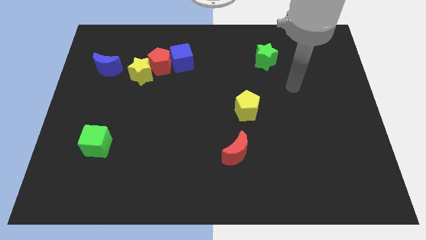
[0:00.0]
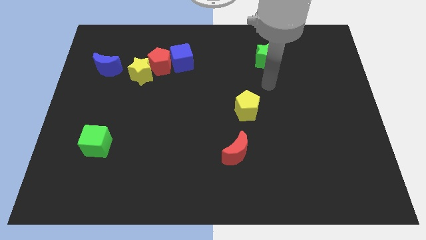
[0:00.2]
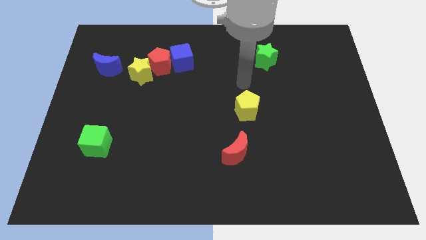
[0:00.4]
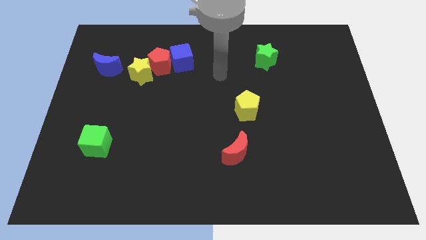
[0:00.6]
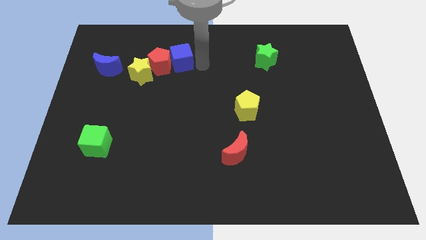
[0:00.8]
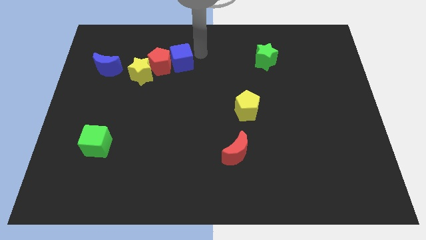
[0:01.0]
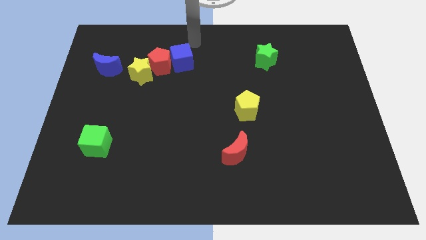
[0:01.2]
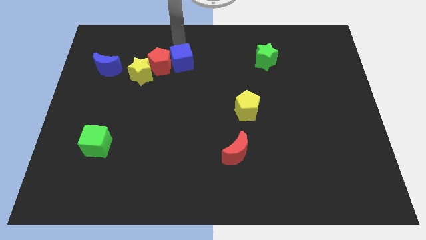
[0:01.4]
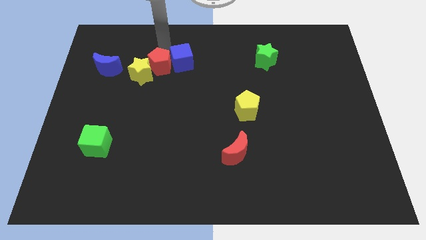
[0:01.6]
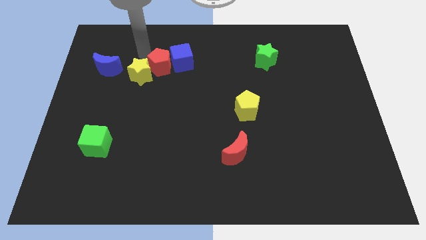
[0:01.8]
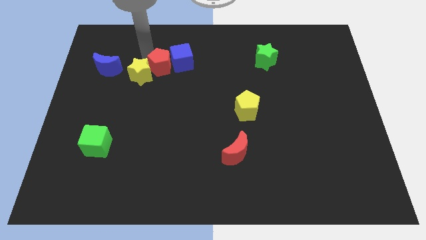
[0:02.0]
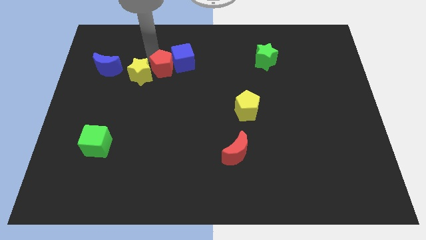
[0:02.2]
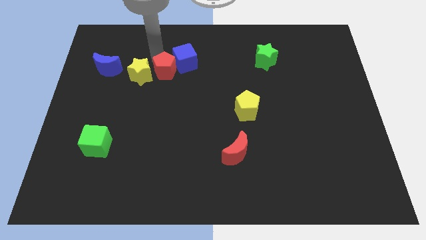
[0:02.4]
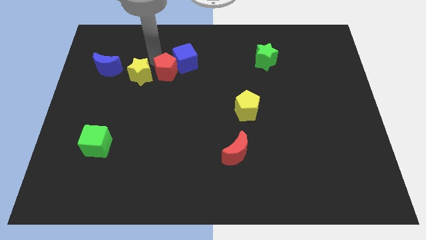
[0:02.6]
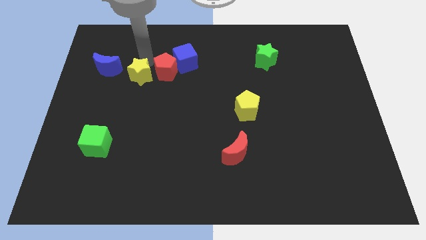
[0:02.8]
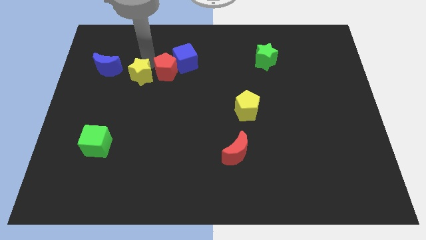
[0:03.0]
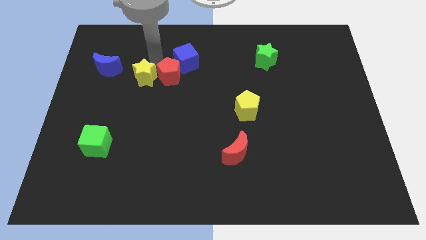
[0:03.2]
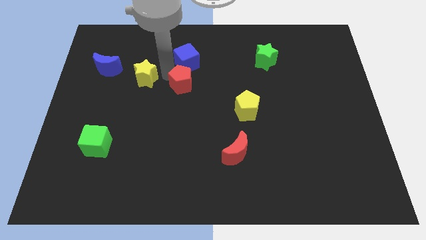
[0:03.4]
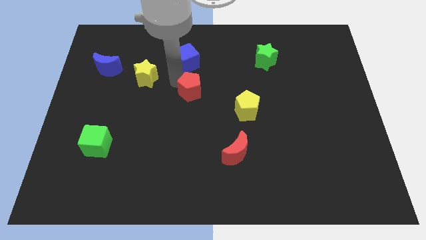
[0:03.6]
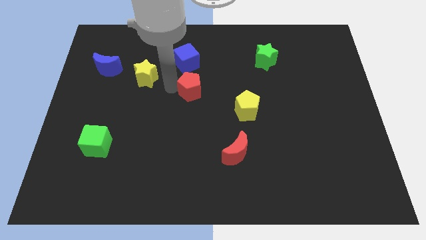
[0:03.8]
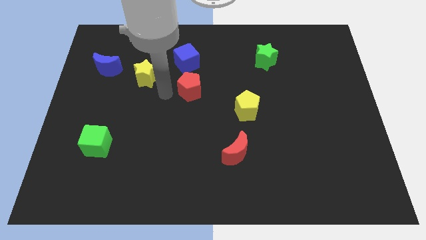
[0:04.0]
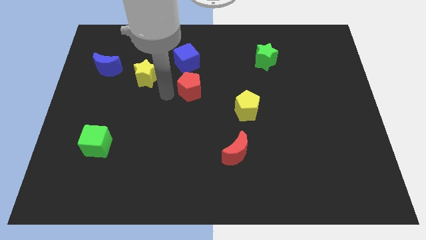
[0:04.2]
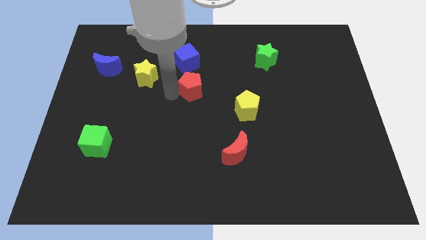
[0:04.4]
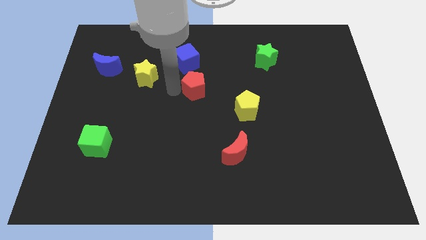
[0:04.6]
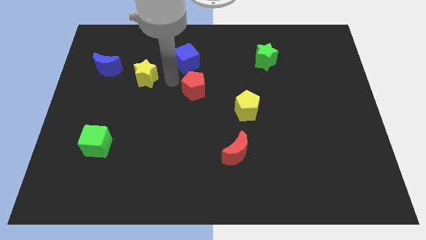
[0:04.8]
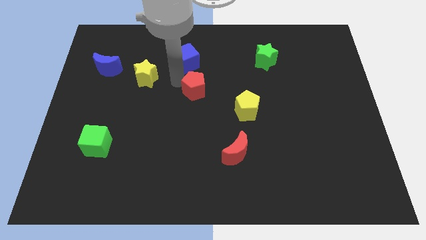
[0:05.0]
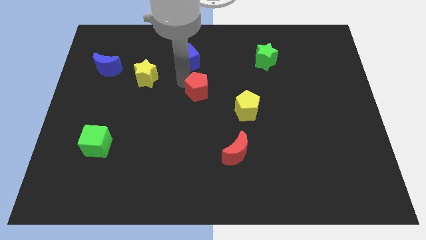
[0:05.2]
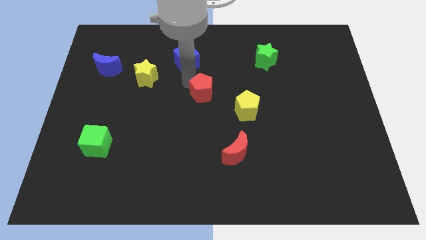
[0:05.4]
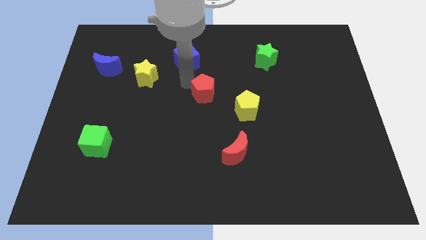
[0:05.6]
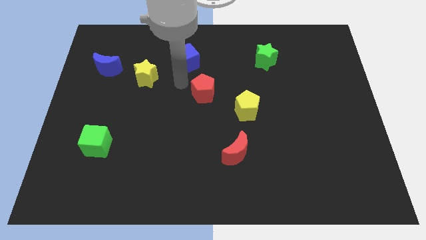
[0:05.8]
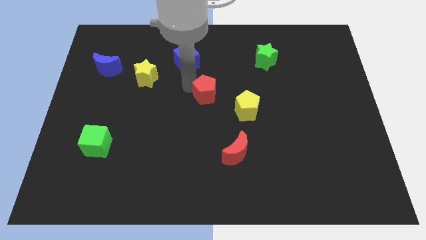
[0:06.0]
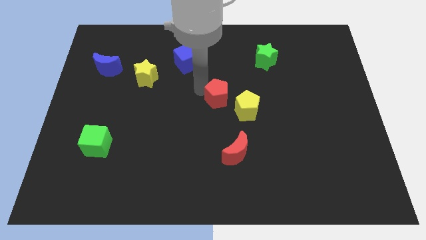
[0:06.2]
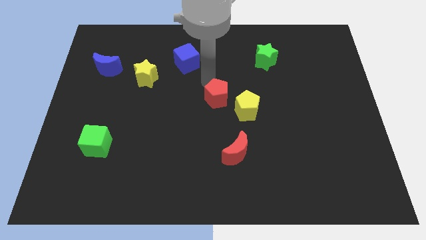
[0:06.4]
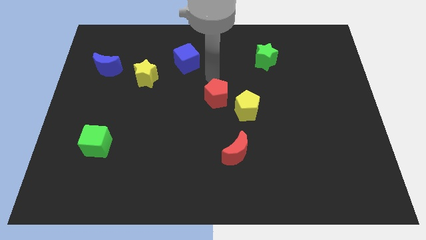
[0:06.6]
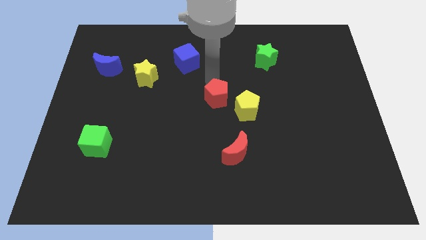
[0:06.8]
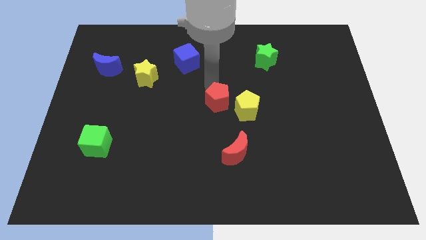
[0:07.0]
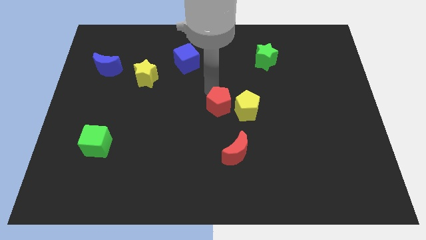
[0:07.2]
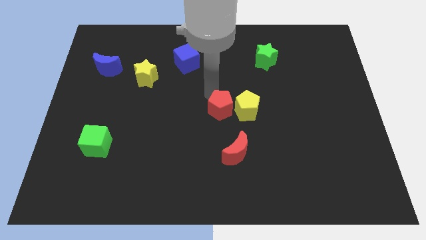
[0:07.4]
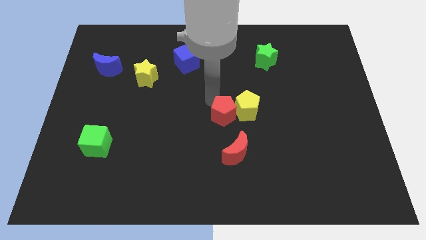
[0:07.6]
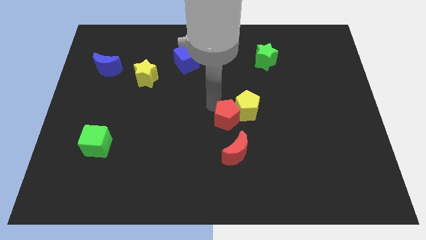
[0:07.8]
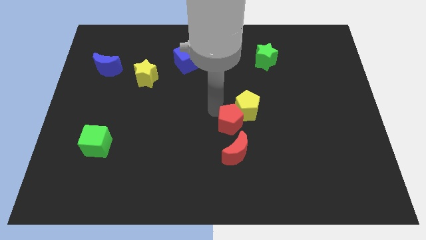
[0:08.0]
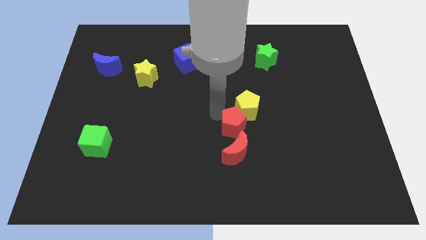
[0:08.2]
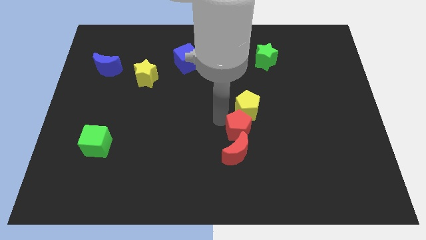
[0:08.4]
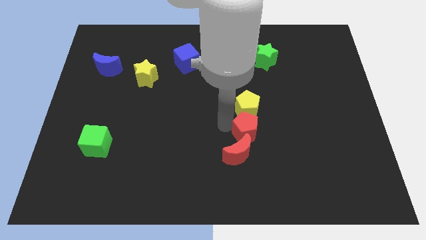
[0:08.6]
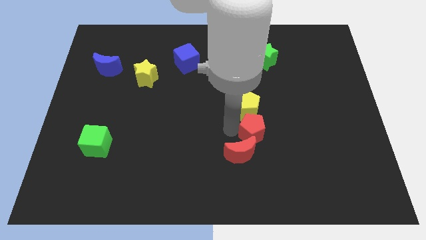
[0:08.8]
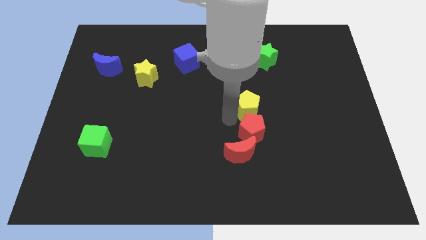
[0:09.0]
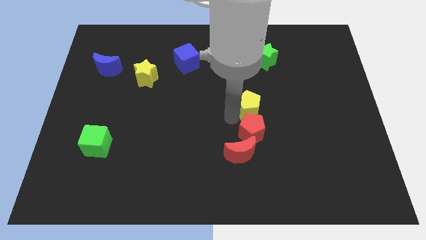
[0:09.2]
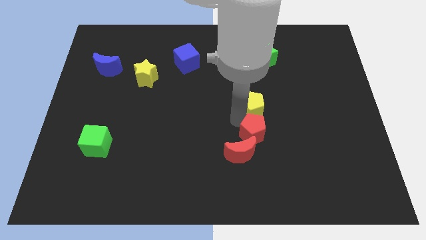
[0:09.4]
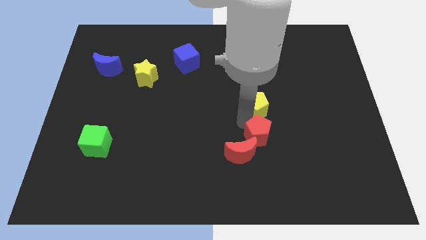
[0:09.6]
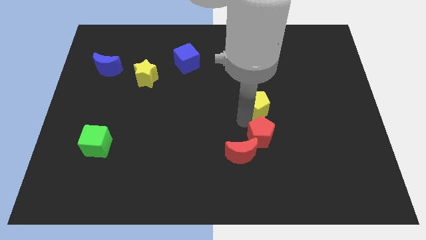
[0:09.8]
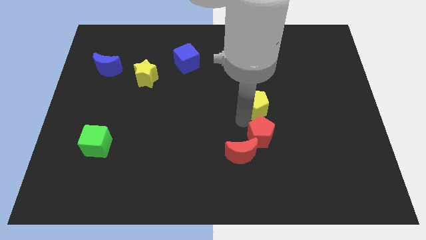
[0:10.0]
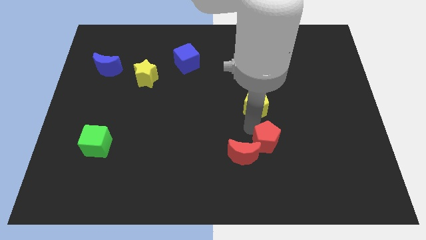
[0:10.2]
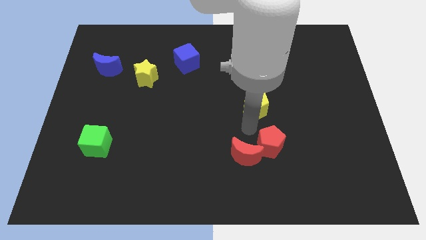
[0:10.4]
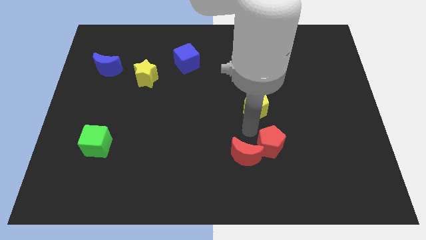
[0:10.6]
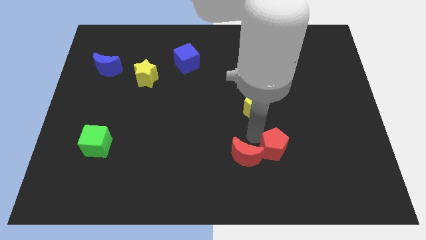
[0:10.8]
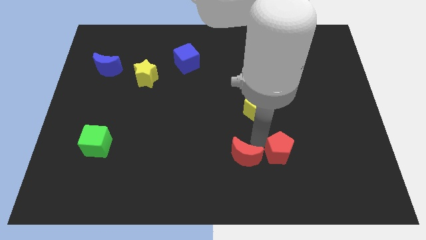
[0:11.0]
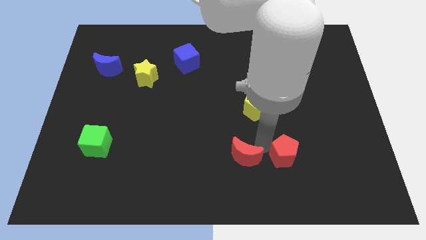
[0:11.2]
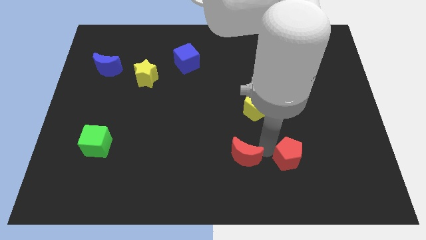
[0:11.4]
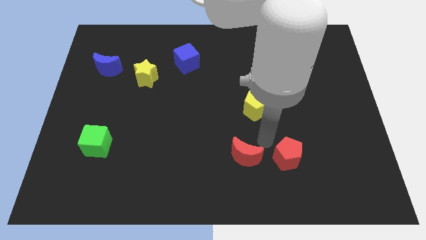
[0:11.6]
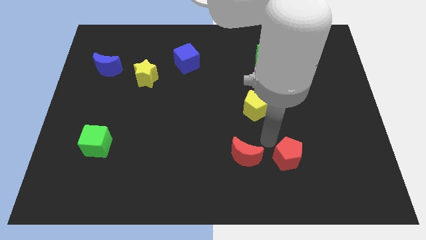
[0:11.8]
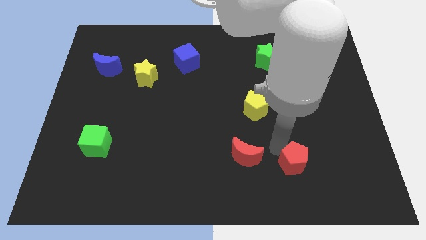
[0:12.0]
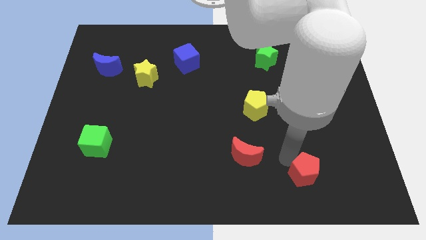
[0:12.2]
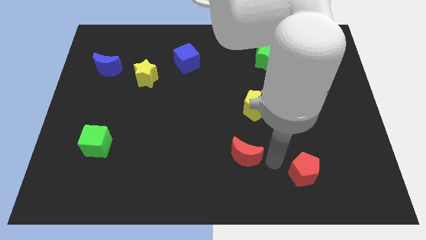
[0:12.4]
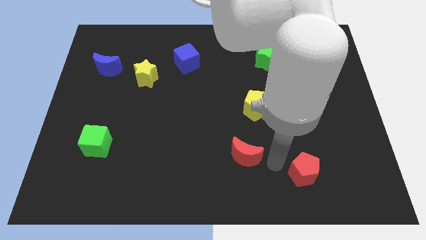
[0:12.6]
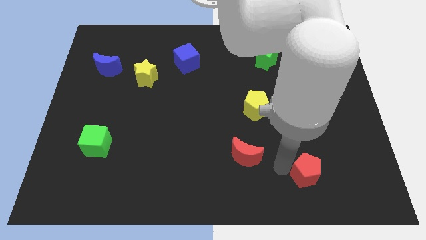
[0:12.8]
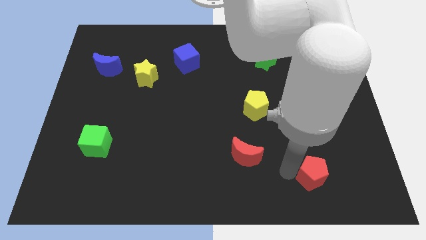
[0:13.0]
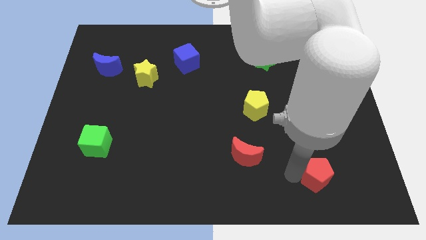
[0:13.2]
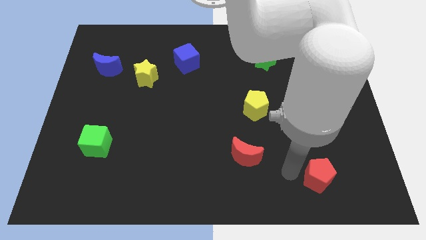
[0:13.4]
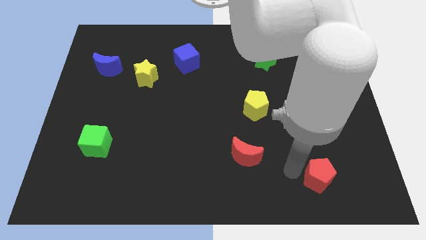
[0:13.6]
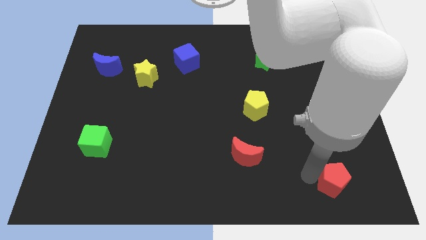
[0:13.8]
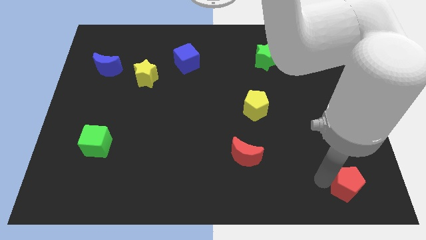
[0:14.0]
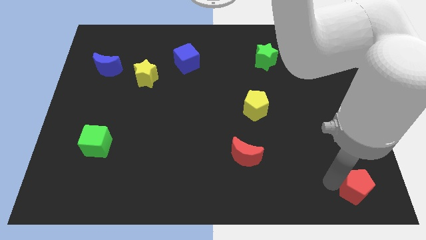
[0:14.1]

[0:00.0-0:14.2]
move the red pentagon to the bottom right corner
